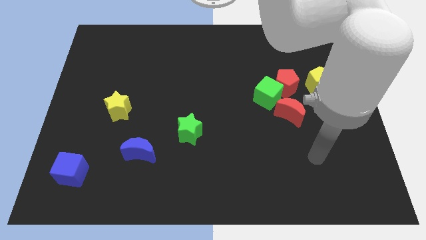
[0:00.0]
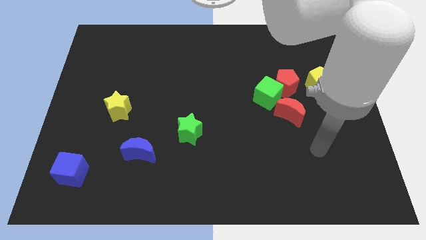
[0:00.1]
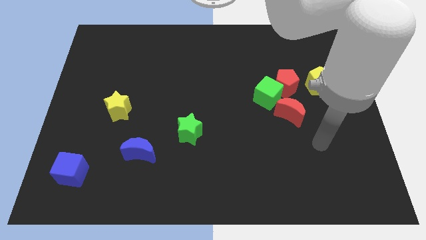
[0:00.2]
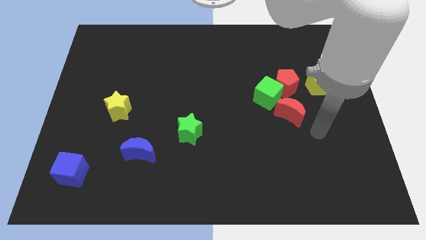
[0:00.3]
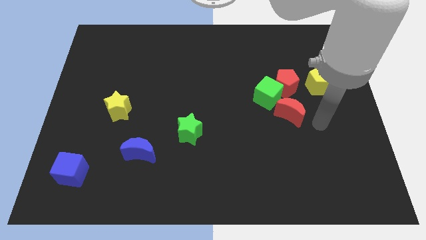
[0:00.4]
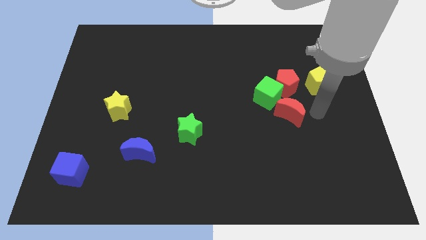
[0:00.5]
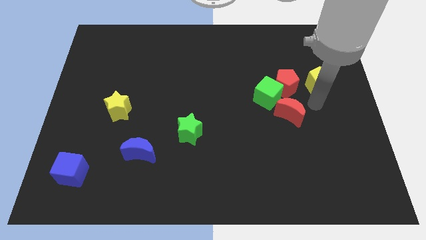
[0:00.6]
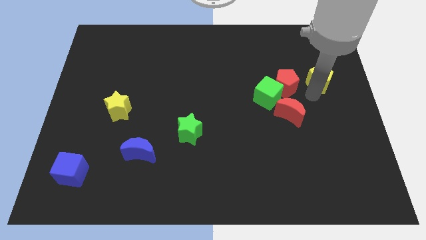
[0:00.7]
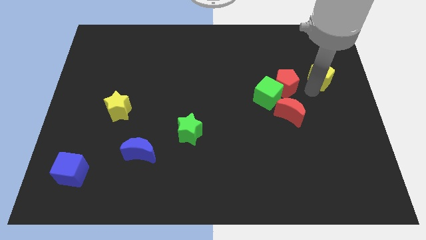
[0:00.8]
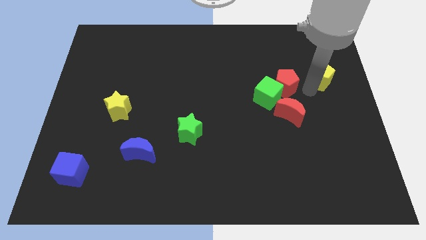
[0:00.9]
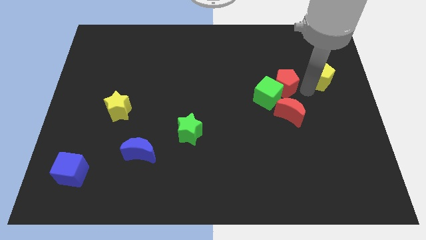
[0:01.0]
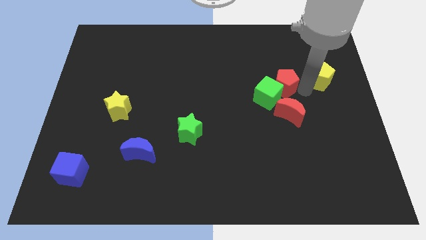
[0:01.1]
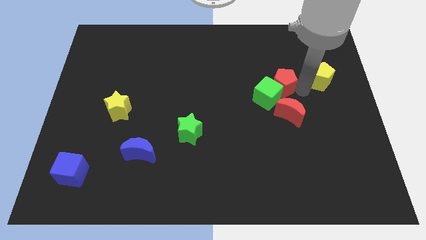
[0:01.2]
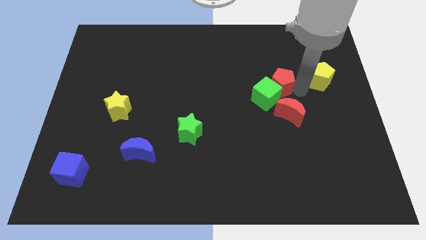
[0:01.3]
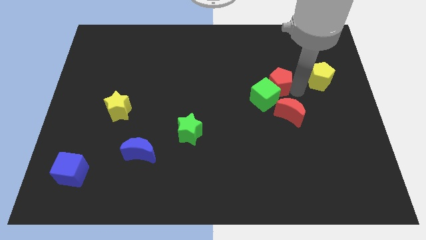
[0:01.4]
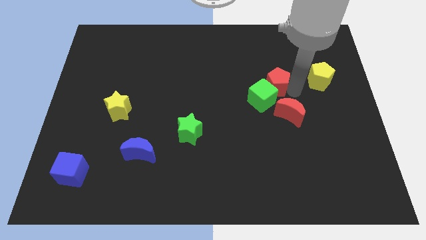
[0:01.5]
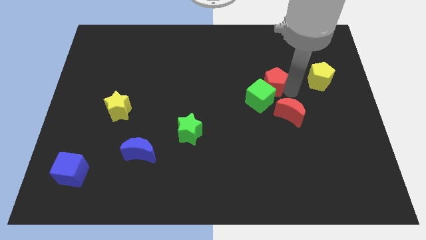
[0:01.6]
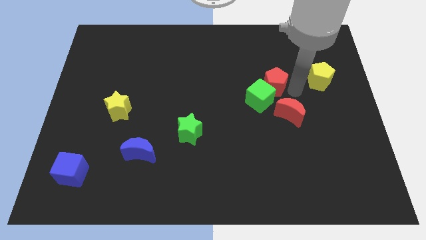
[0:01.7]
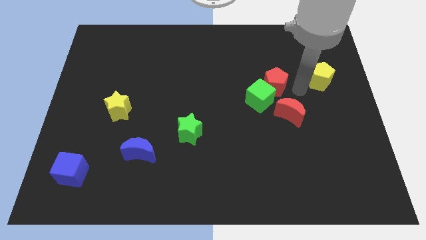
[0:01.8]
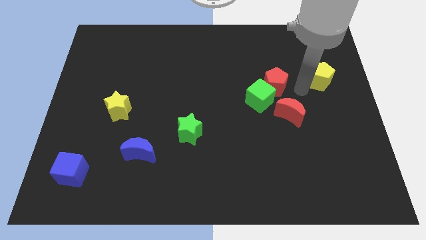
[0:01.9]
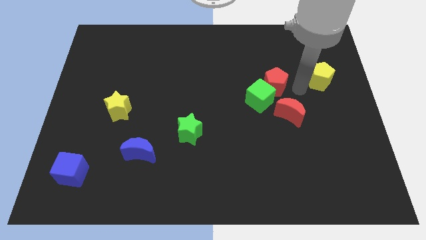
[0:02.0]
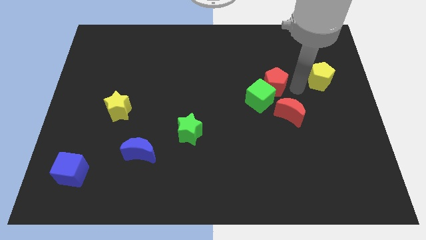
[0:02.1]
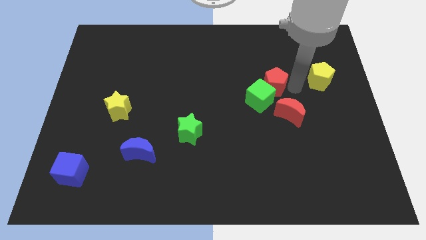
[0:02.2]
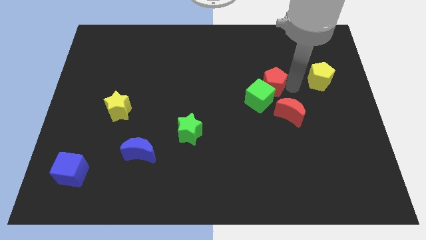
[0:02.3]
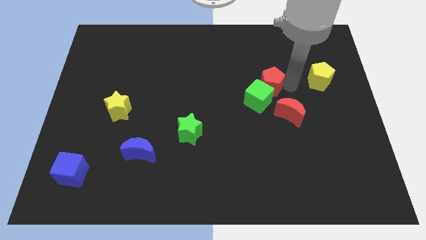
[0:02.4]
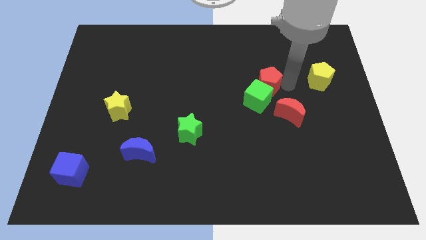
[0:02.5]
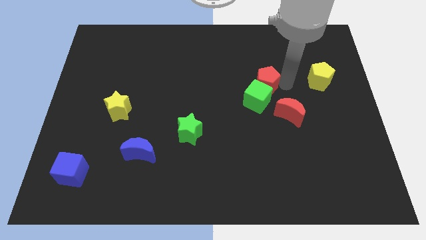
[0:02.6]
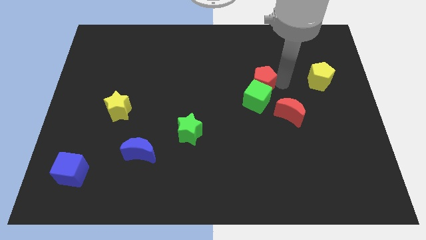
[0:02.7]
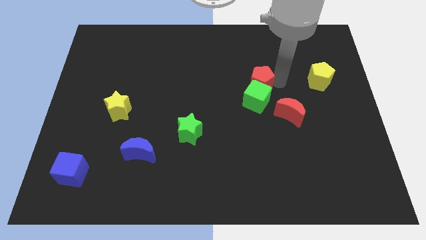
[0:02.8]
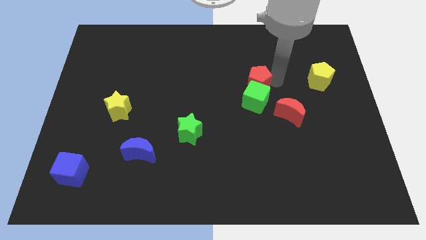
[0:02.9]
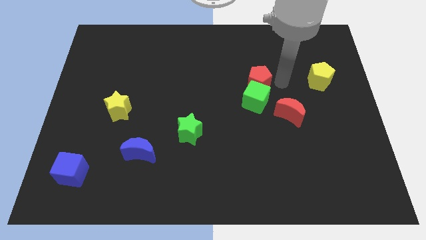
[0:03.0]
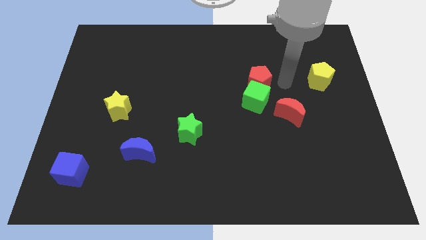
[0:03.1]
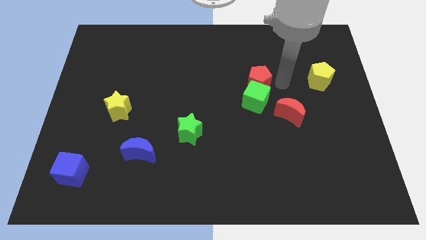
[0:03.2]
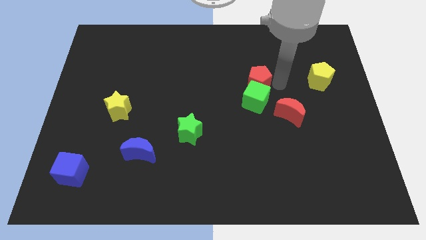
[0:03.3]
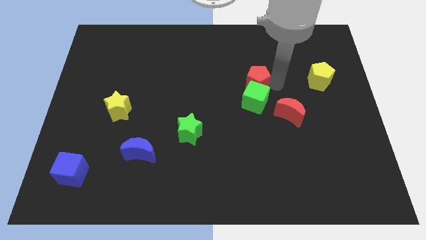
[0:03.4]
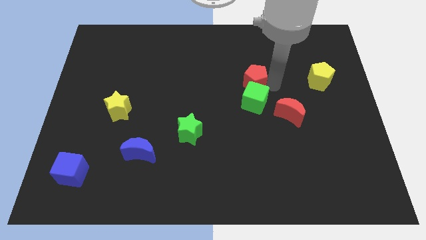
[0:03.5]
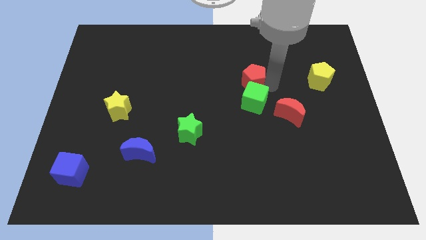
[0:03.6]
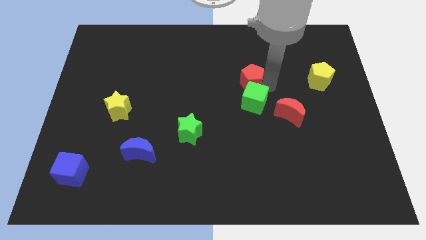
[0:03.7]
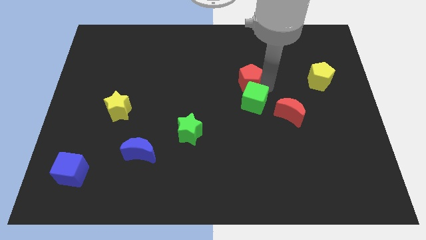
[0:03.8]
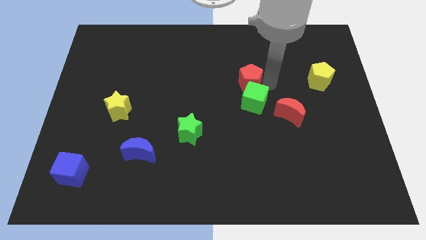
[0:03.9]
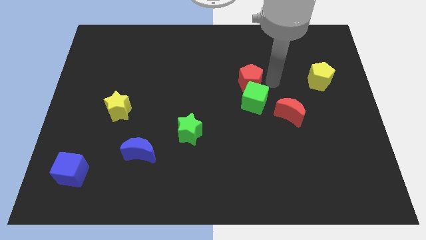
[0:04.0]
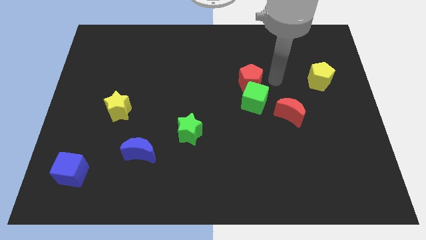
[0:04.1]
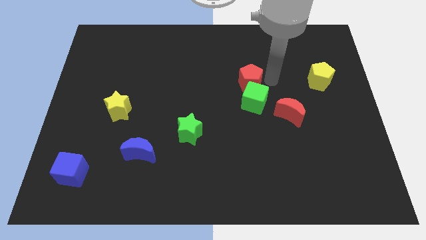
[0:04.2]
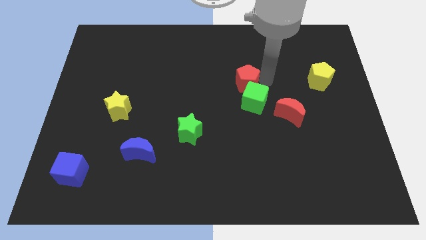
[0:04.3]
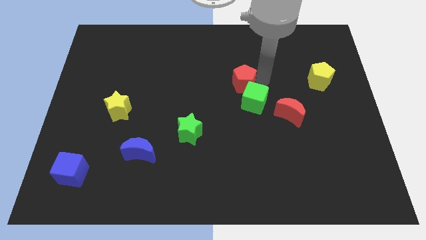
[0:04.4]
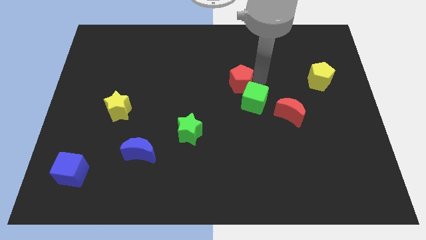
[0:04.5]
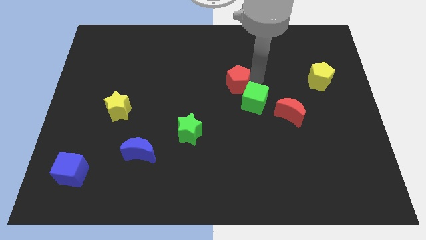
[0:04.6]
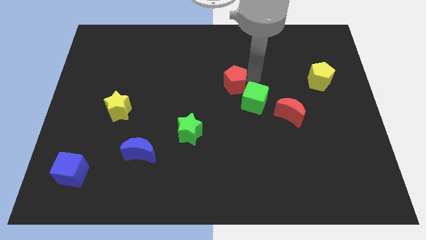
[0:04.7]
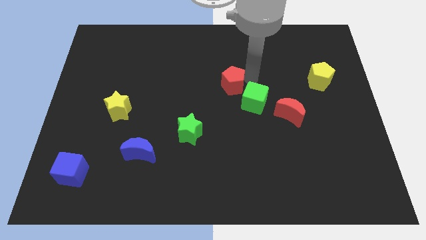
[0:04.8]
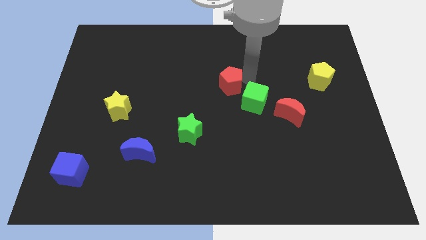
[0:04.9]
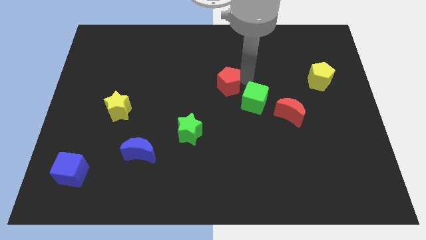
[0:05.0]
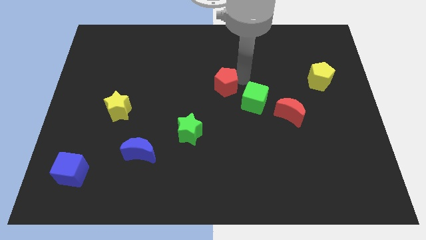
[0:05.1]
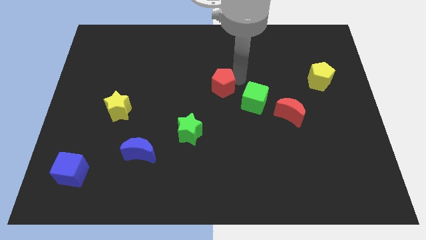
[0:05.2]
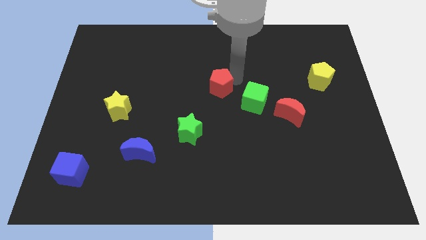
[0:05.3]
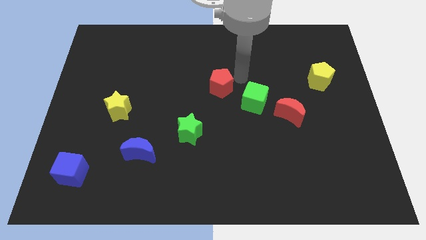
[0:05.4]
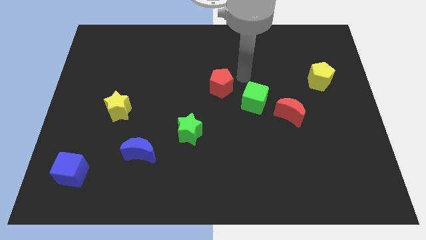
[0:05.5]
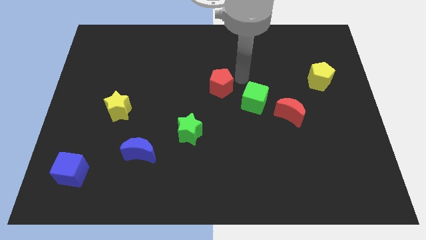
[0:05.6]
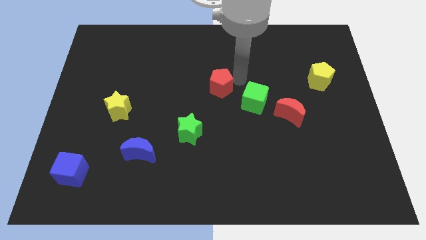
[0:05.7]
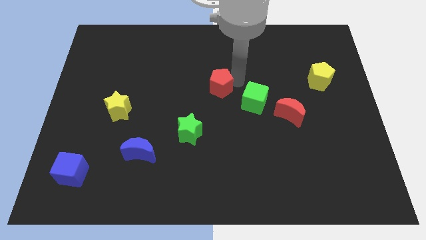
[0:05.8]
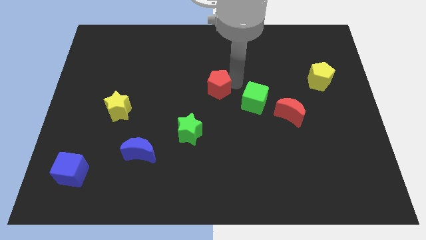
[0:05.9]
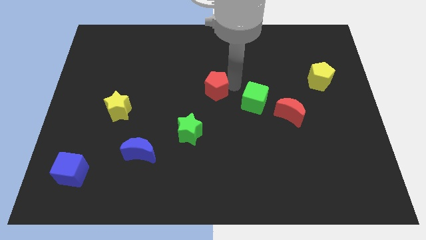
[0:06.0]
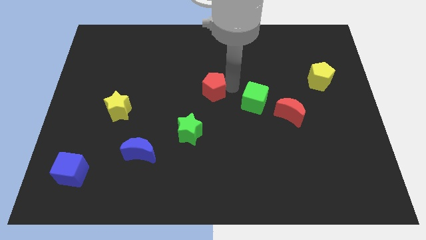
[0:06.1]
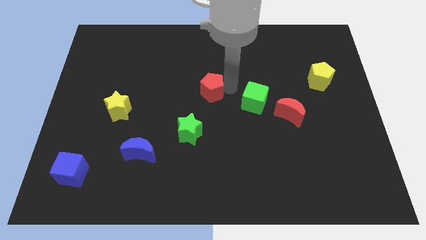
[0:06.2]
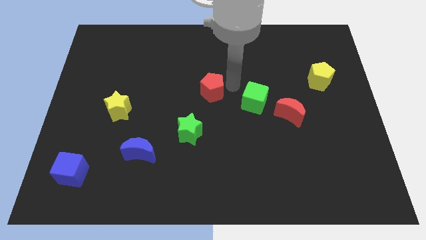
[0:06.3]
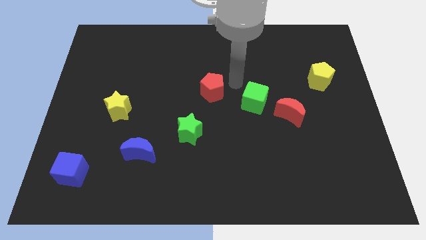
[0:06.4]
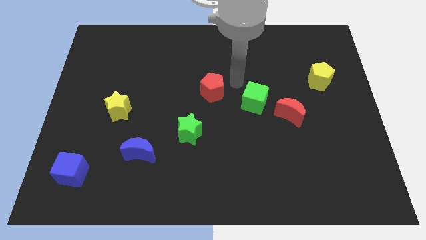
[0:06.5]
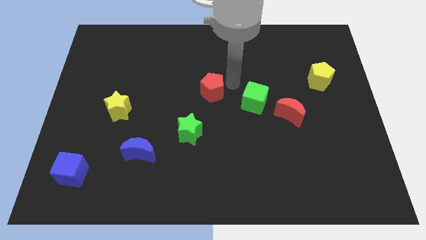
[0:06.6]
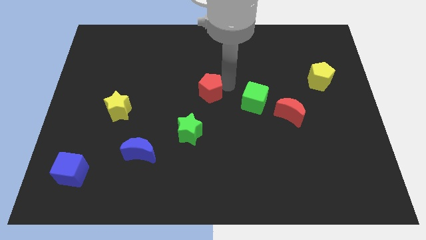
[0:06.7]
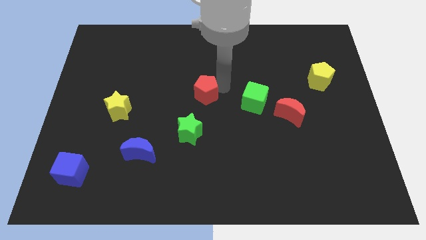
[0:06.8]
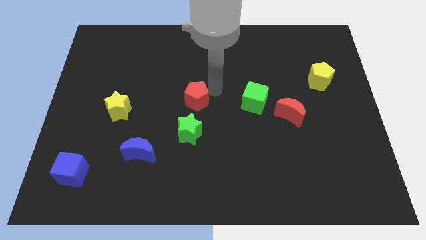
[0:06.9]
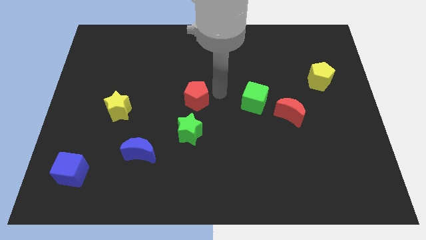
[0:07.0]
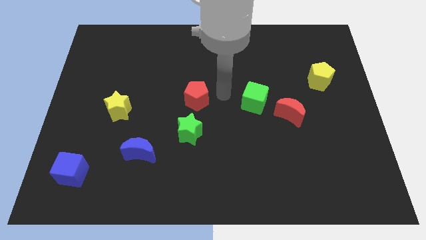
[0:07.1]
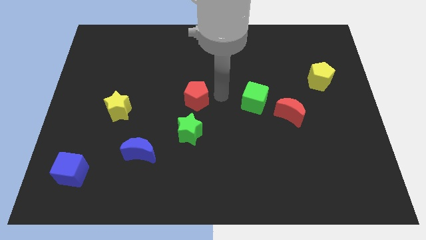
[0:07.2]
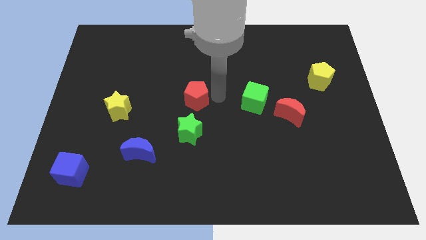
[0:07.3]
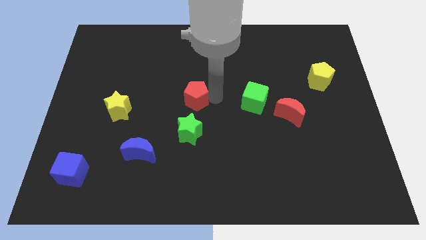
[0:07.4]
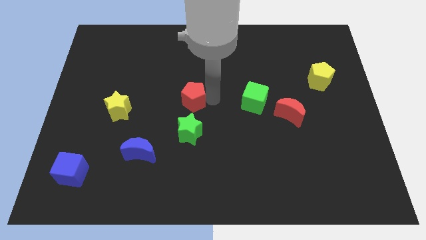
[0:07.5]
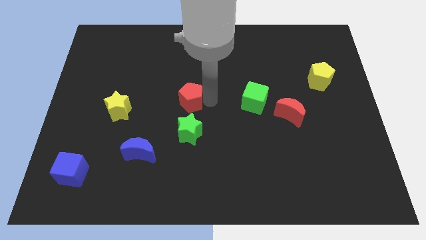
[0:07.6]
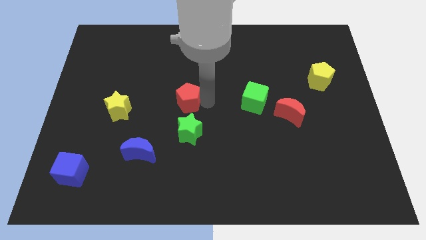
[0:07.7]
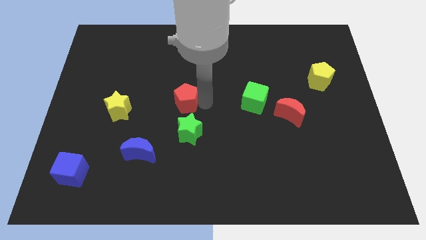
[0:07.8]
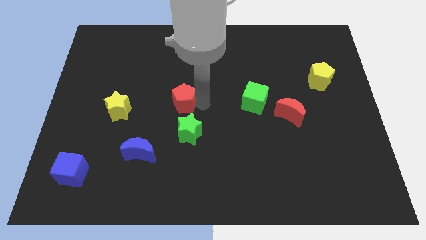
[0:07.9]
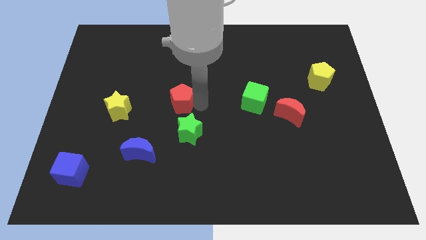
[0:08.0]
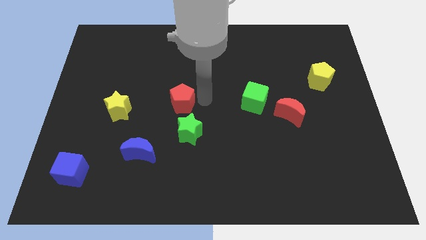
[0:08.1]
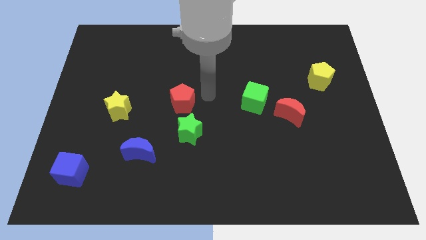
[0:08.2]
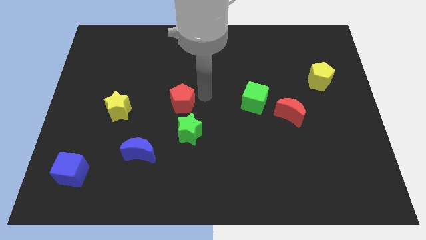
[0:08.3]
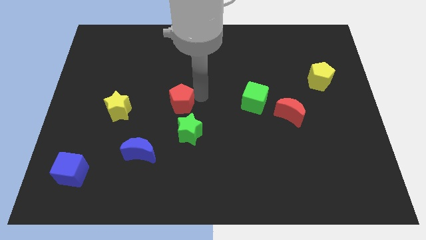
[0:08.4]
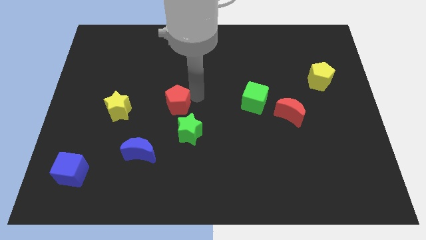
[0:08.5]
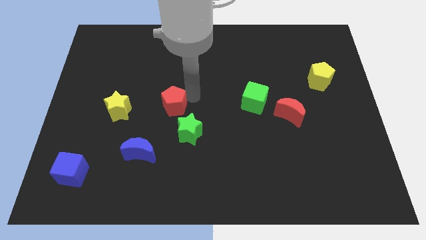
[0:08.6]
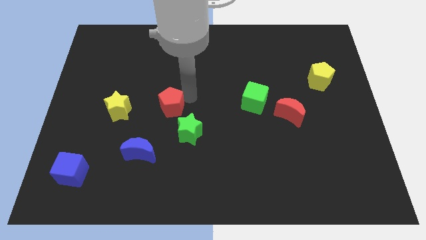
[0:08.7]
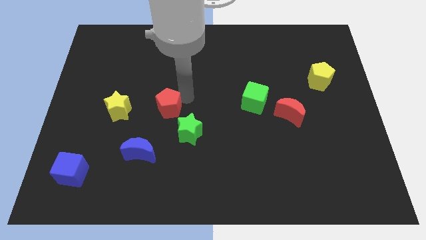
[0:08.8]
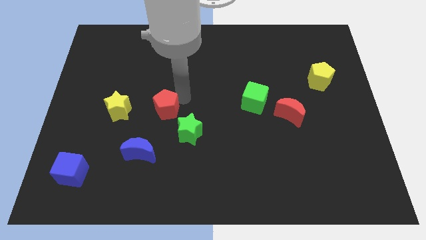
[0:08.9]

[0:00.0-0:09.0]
put the red pentagon to the top of the blue moon
